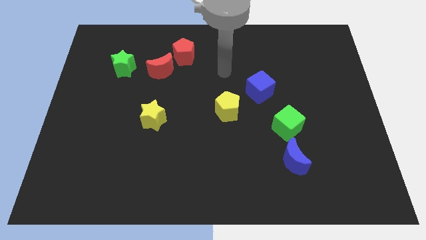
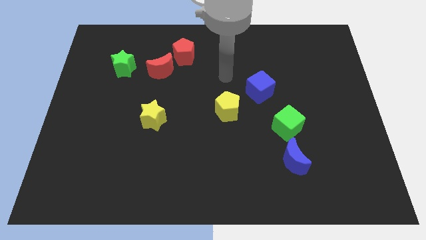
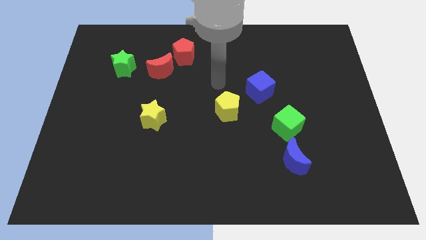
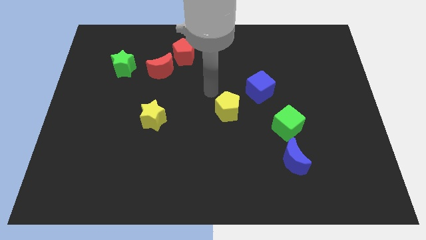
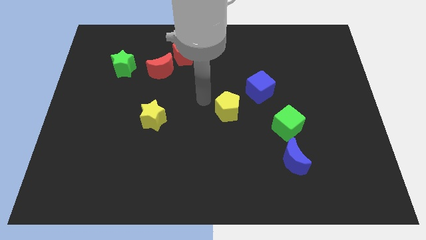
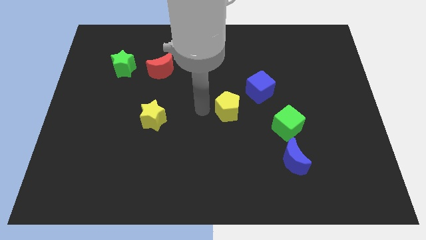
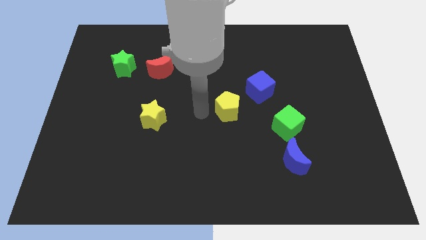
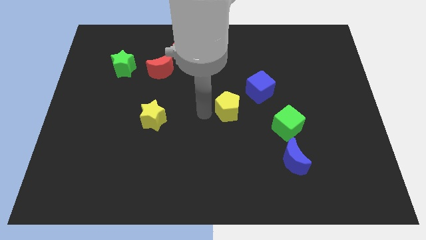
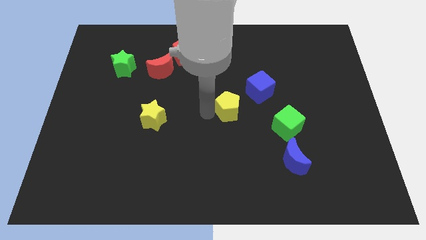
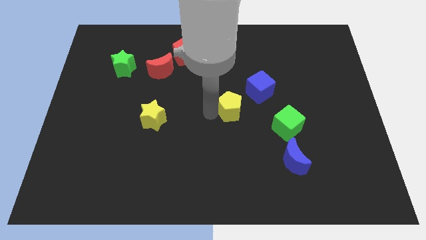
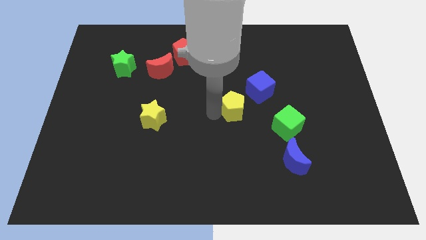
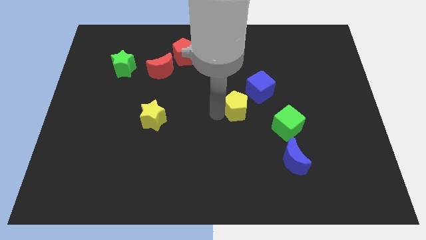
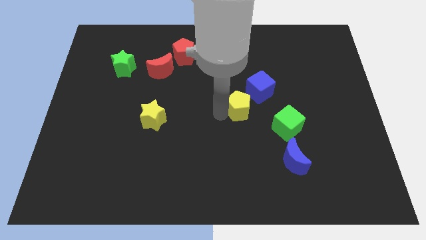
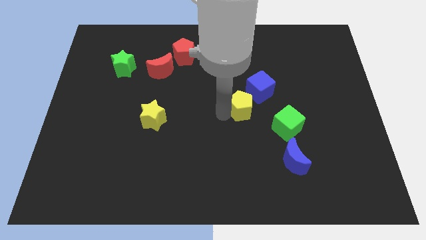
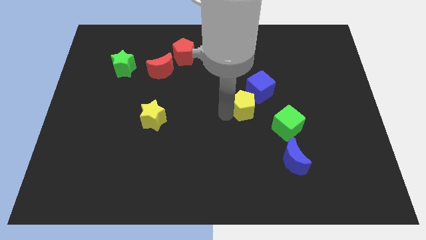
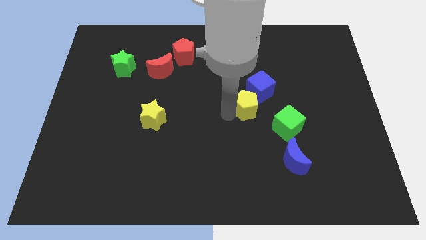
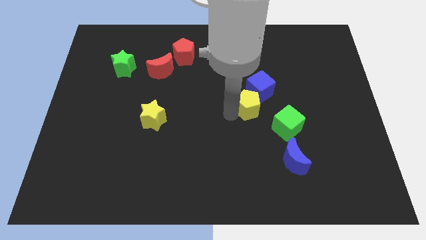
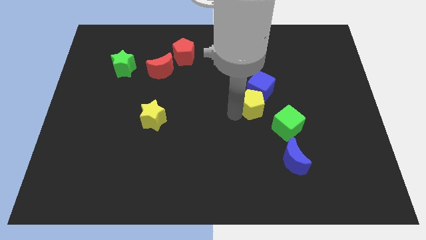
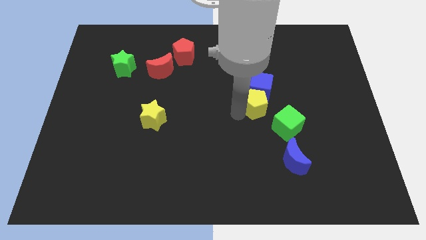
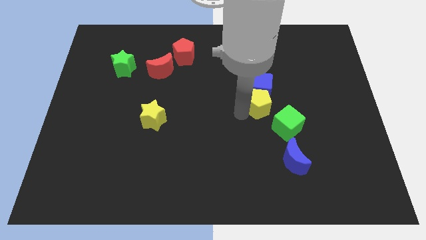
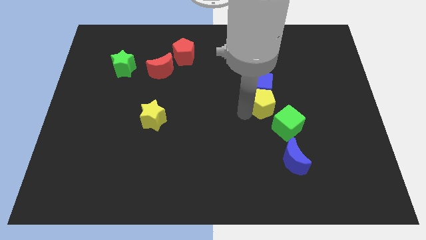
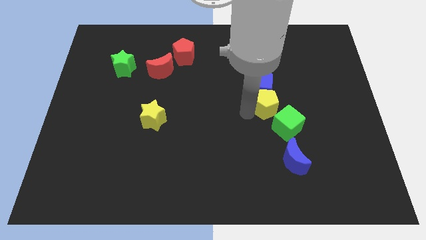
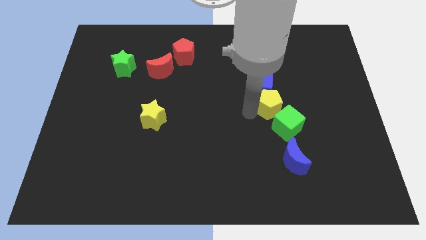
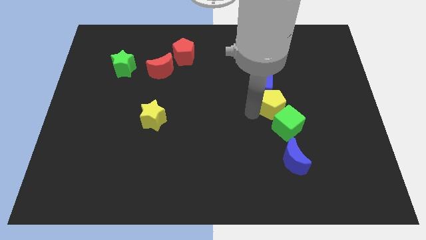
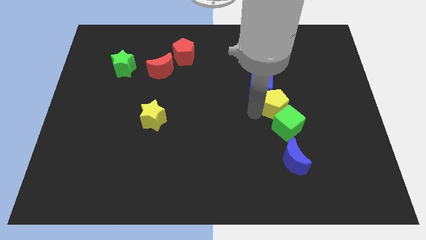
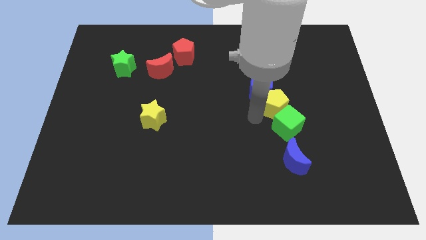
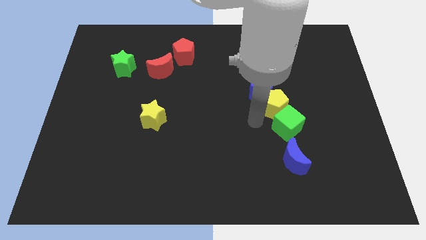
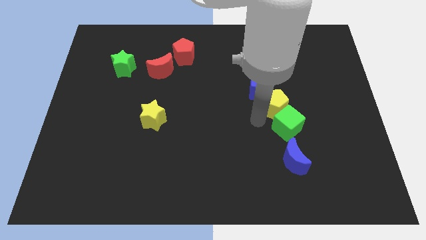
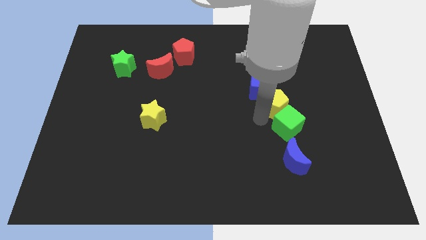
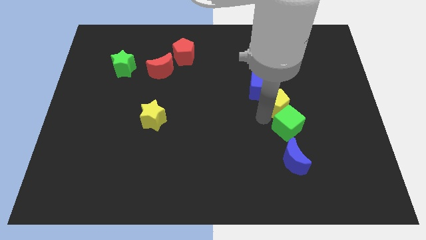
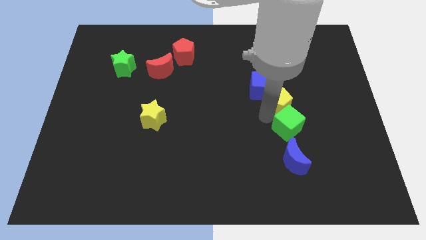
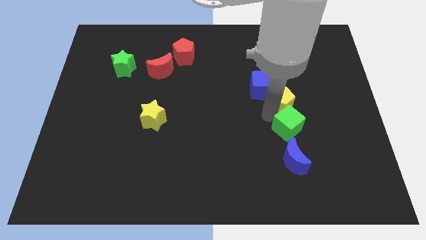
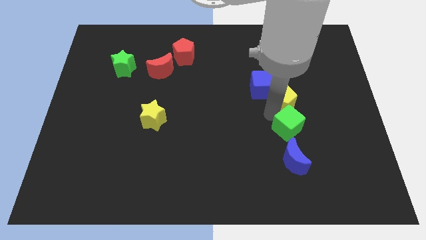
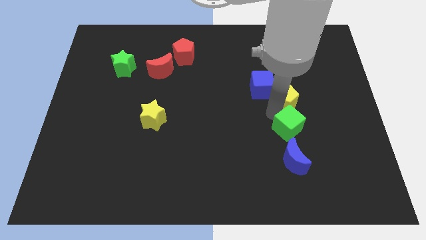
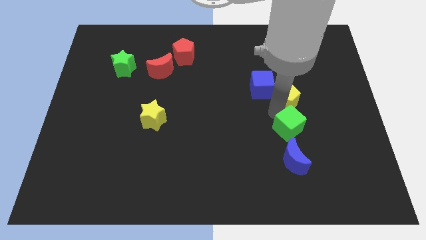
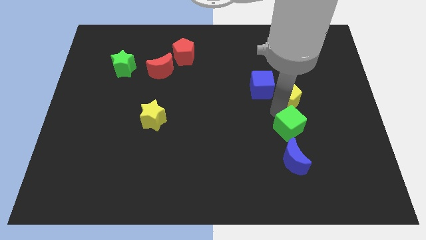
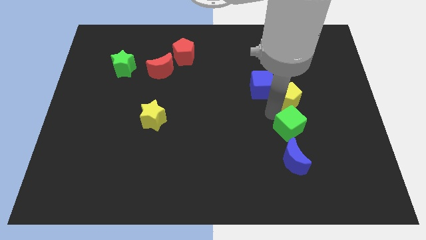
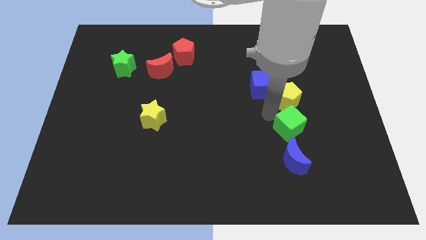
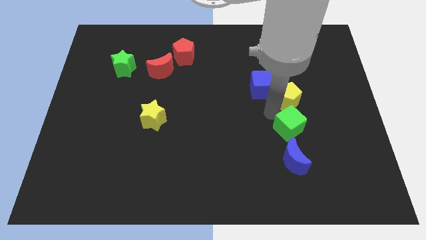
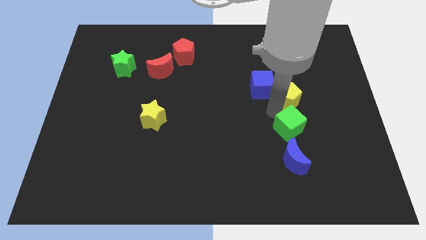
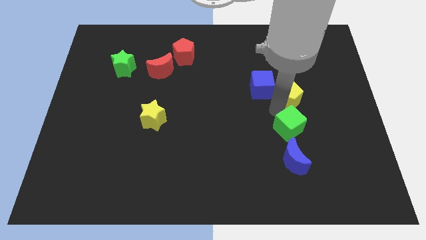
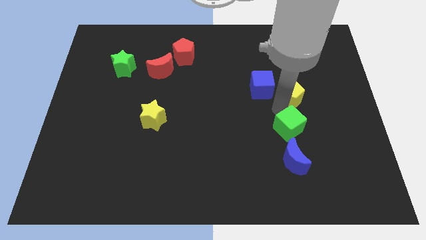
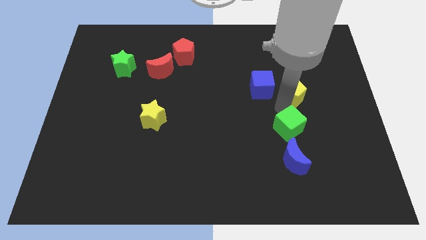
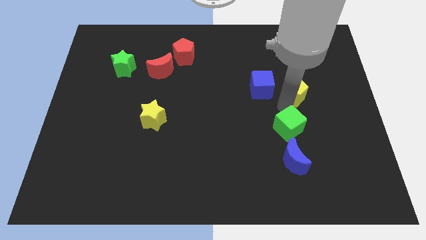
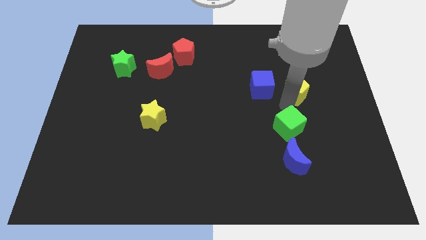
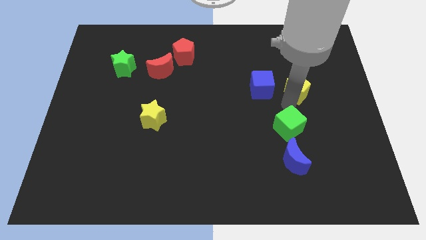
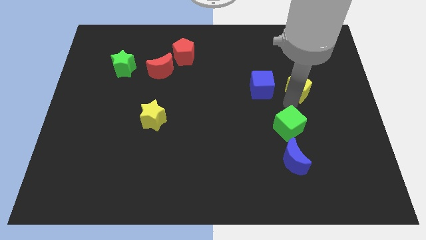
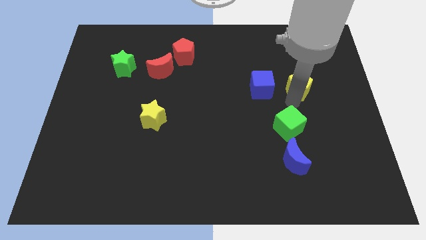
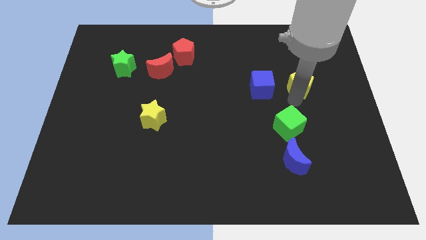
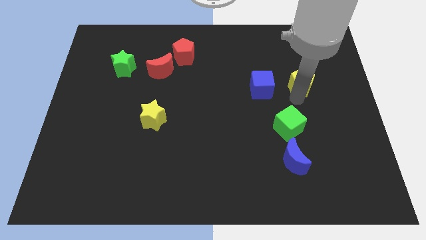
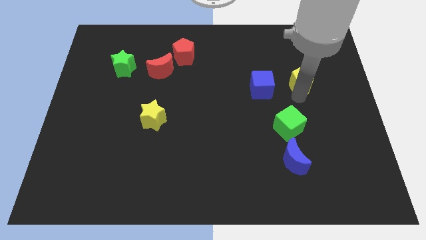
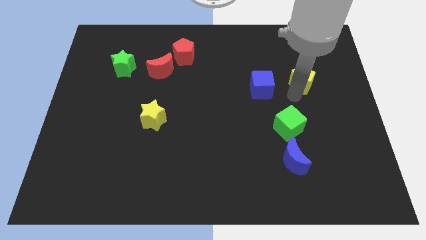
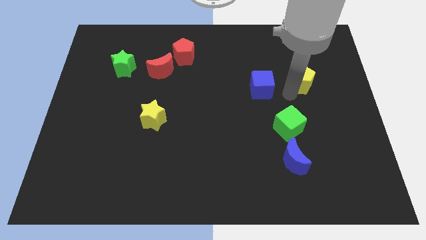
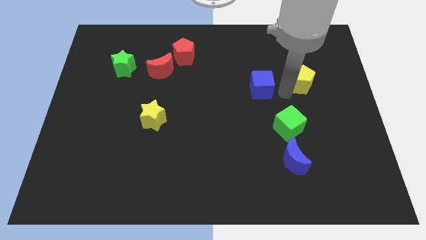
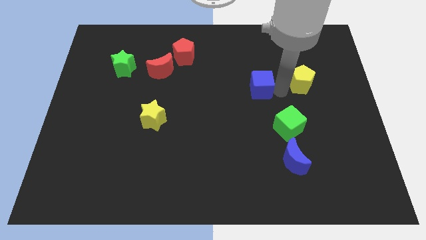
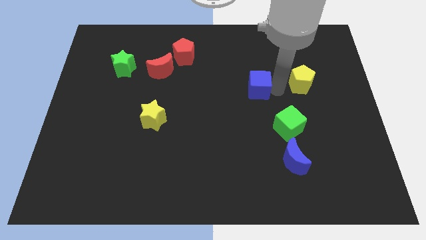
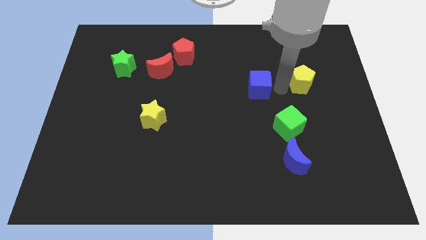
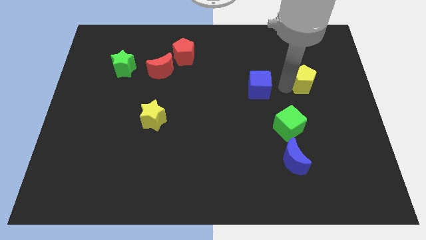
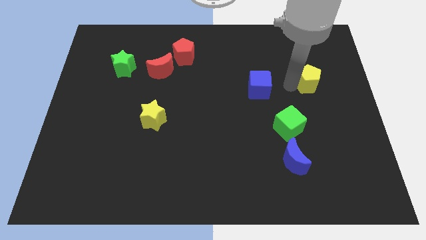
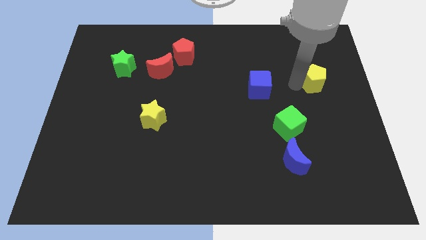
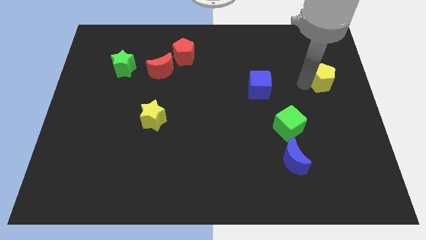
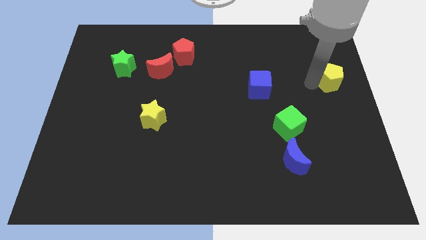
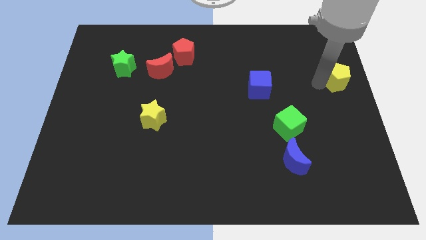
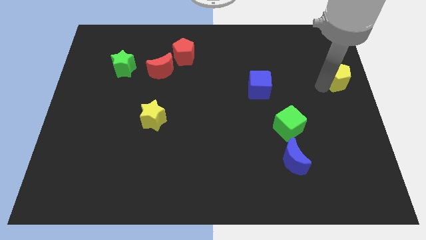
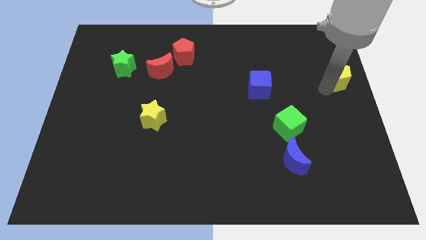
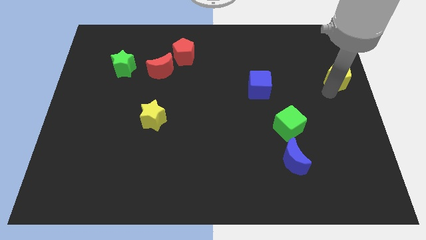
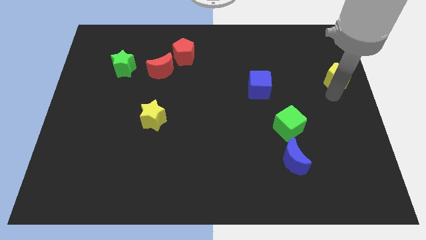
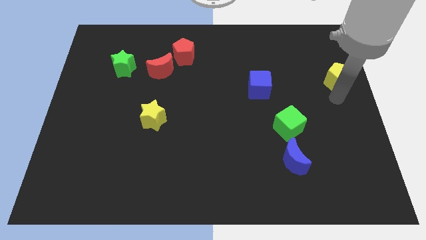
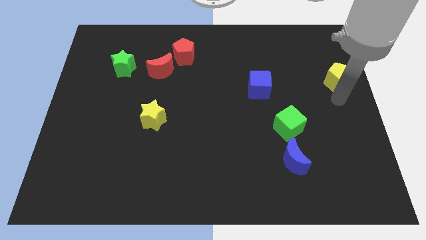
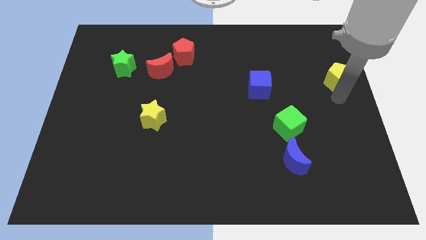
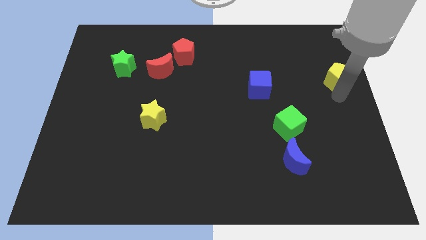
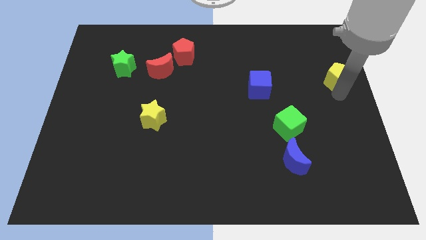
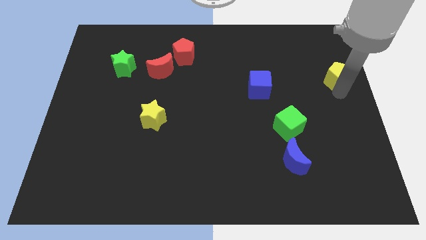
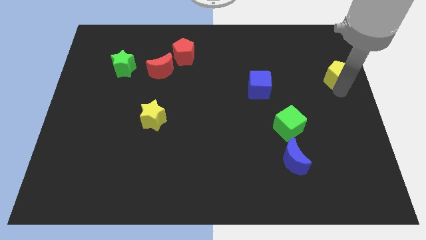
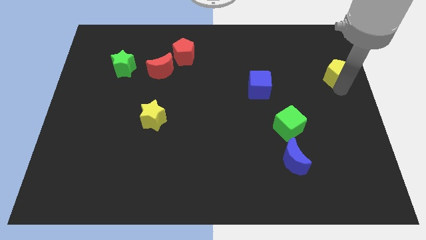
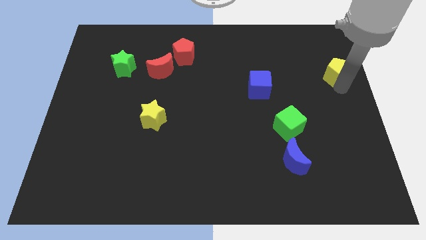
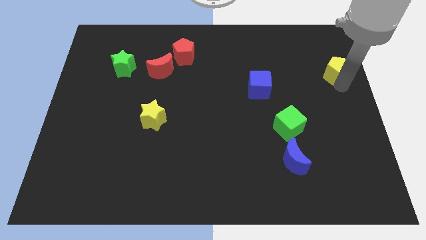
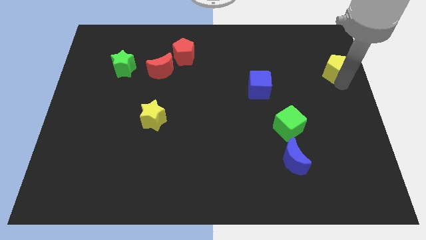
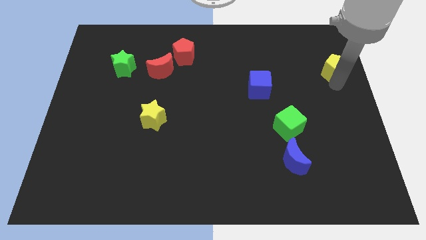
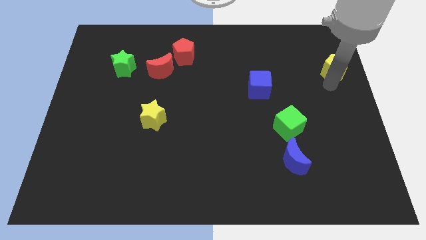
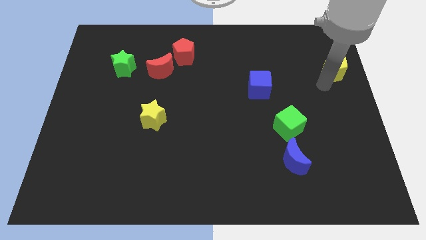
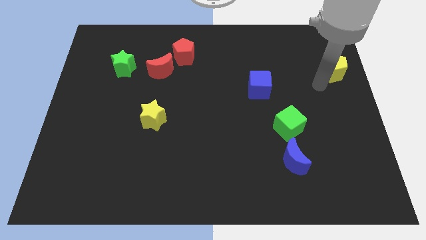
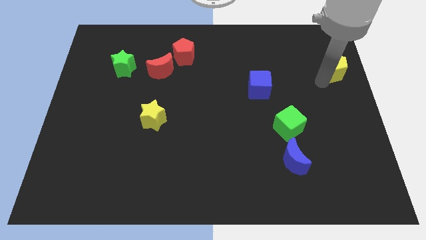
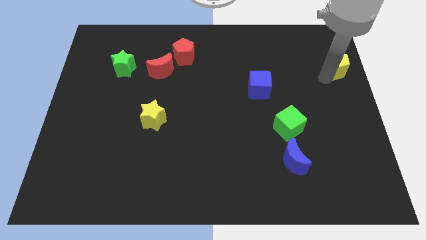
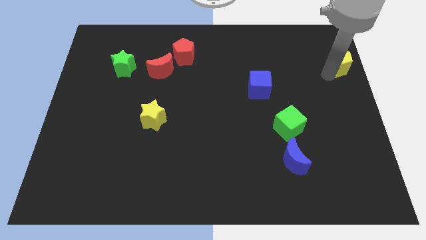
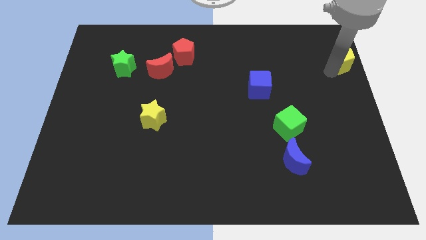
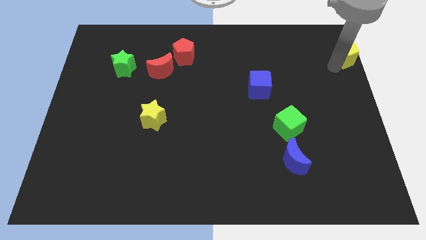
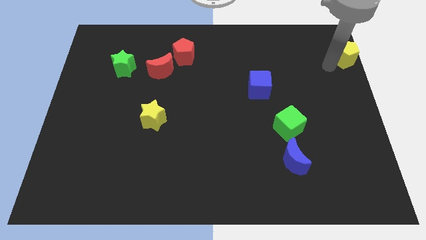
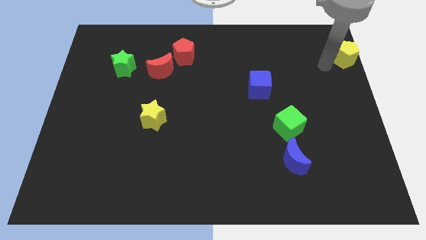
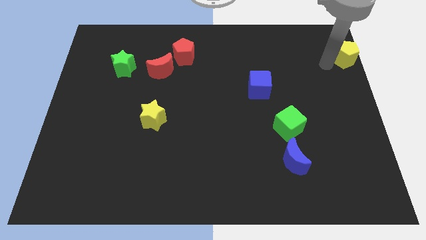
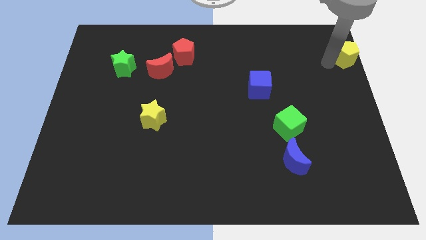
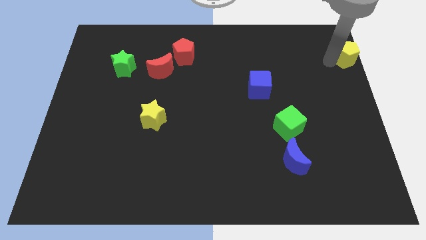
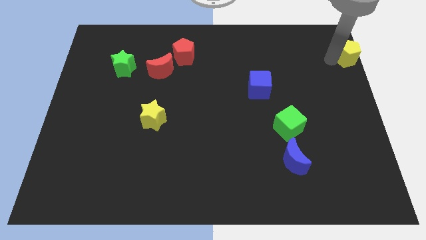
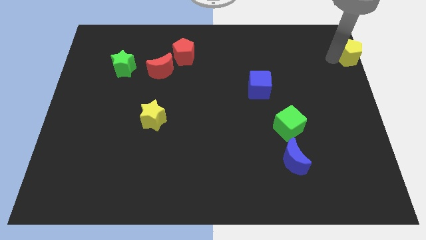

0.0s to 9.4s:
put the yellow pentagon to the top right of the board
